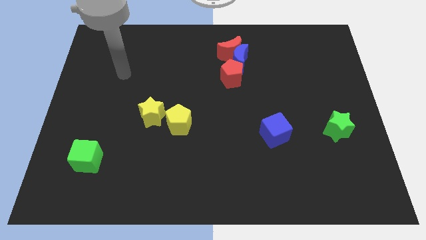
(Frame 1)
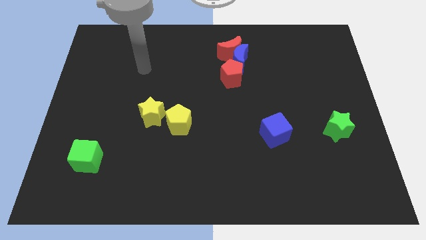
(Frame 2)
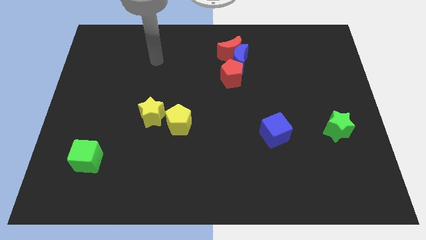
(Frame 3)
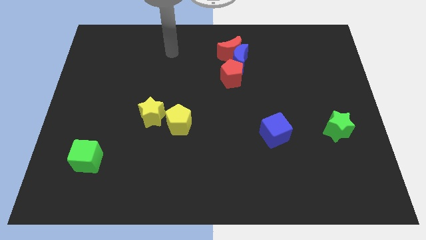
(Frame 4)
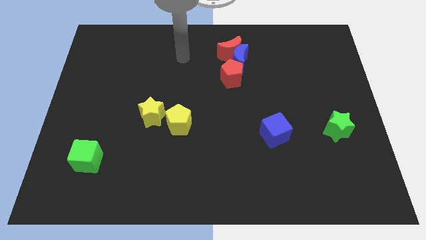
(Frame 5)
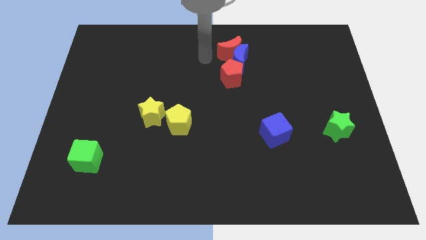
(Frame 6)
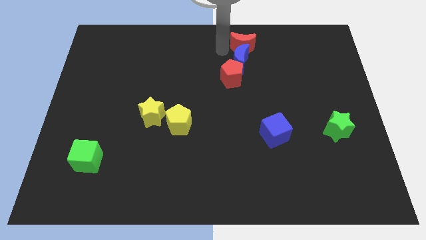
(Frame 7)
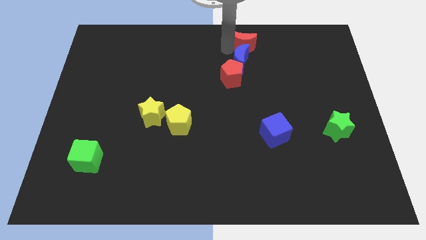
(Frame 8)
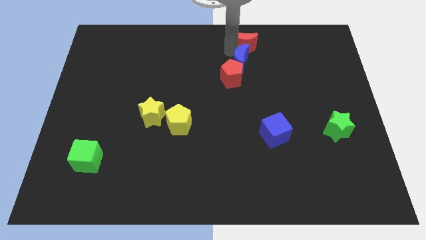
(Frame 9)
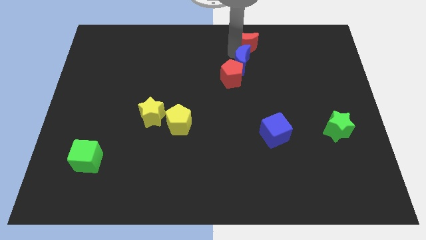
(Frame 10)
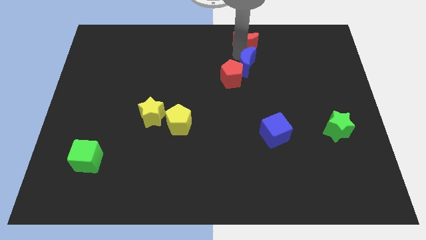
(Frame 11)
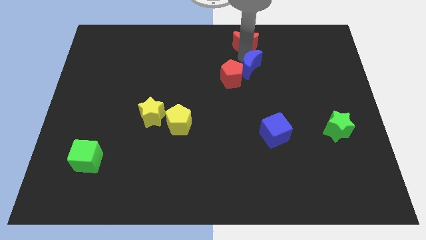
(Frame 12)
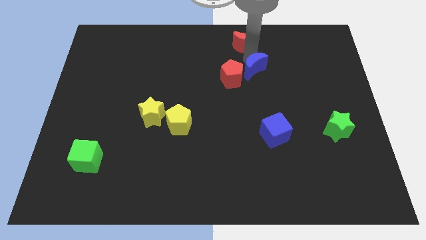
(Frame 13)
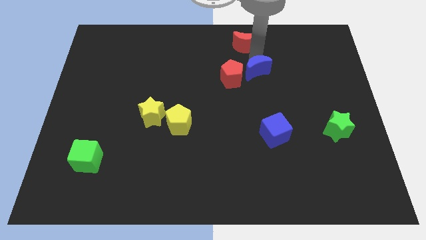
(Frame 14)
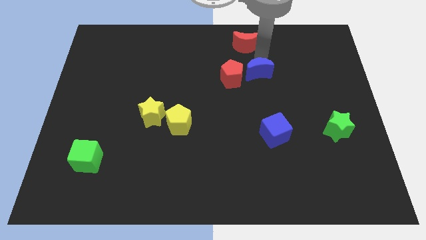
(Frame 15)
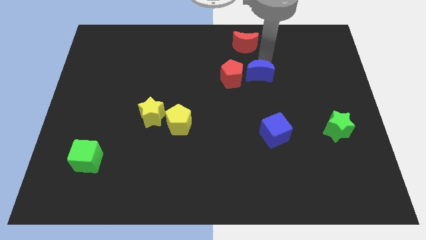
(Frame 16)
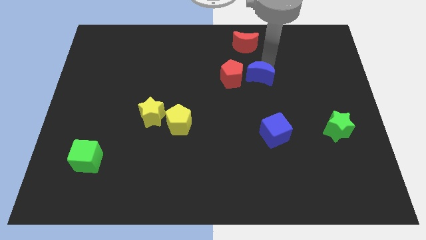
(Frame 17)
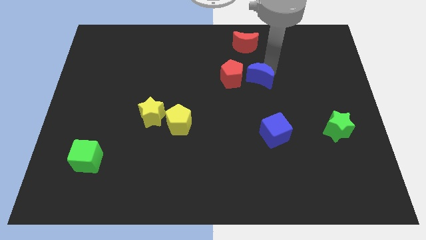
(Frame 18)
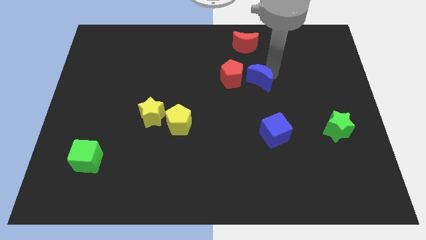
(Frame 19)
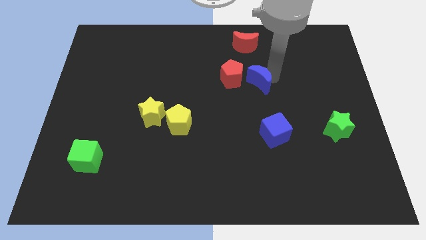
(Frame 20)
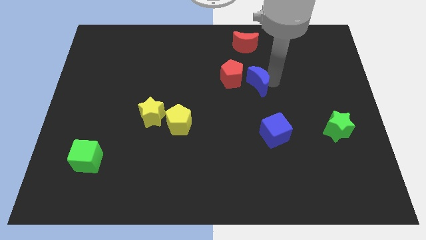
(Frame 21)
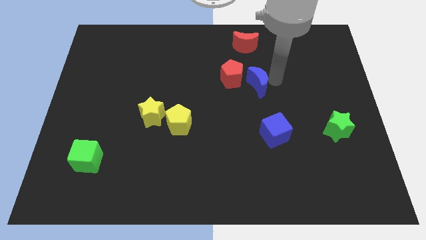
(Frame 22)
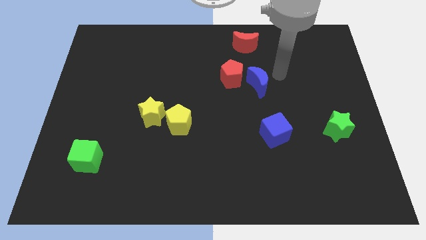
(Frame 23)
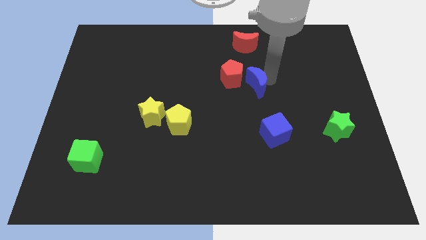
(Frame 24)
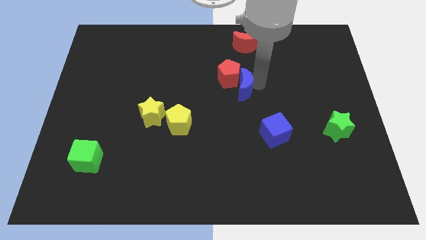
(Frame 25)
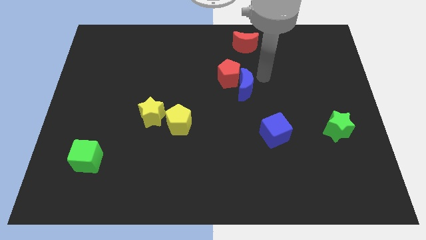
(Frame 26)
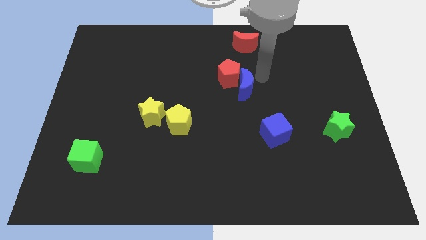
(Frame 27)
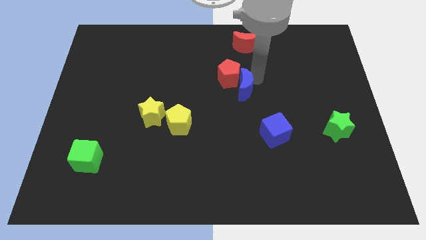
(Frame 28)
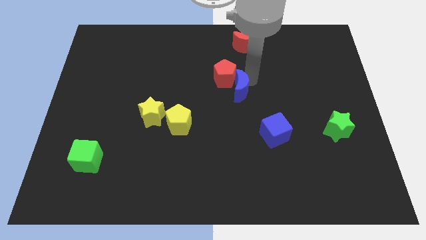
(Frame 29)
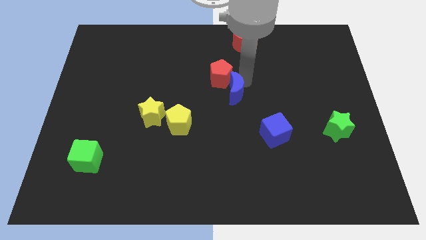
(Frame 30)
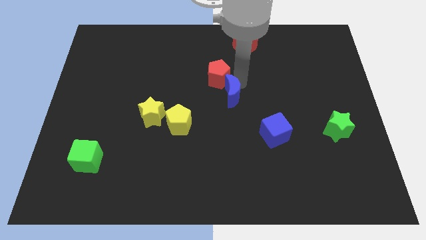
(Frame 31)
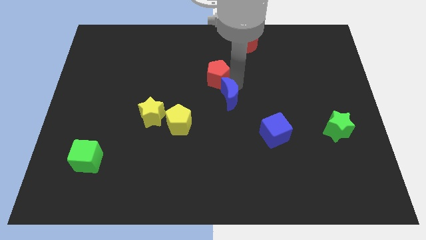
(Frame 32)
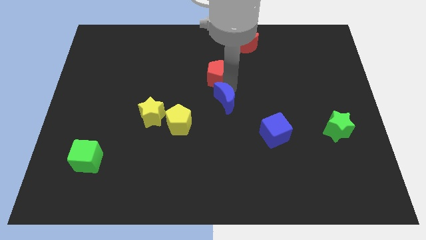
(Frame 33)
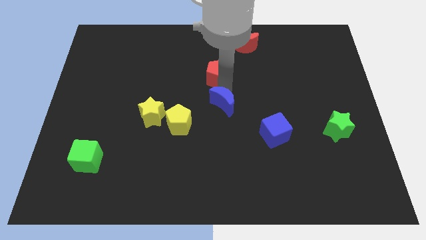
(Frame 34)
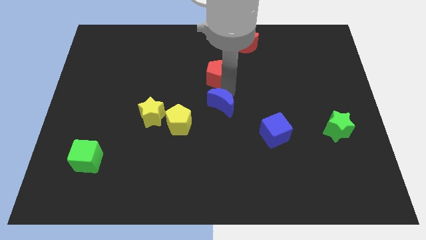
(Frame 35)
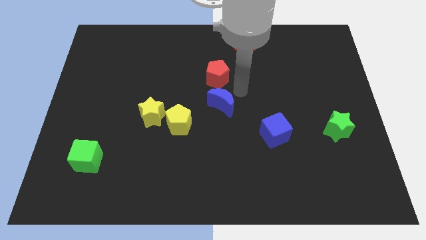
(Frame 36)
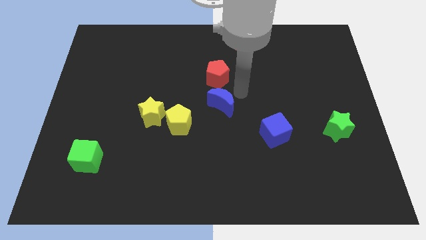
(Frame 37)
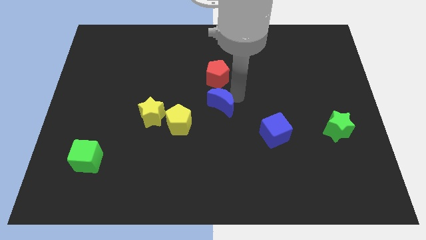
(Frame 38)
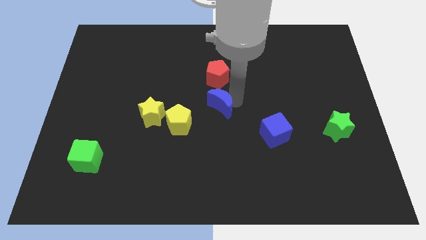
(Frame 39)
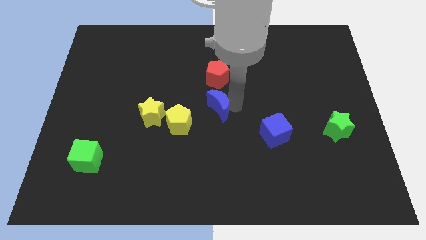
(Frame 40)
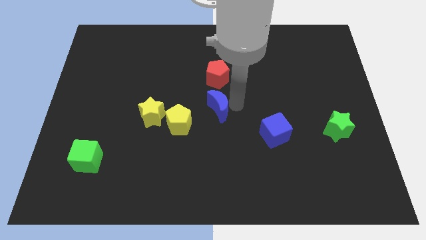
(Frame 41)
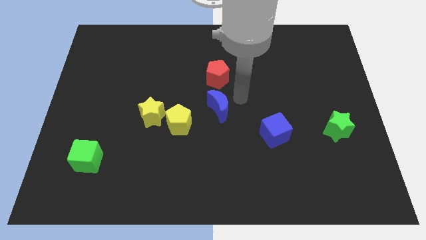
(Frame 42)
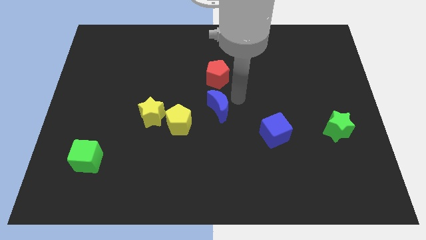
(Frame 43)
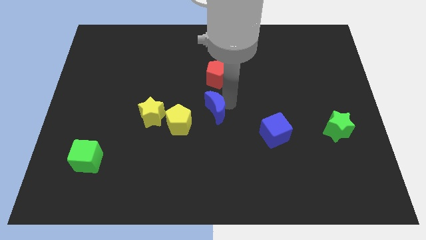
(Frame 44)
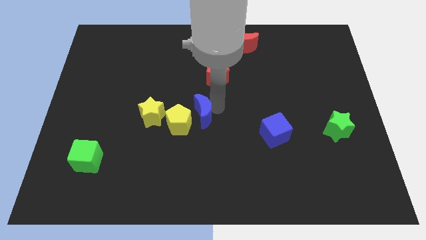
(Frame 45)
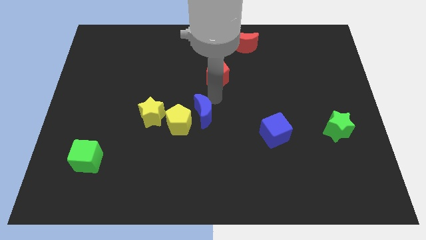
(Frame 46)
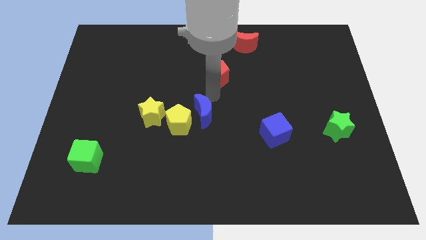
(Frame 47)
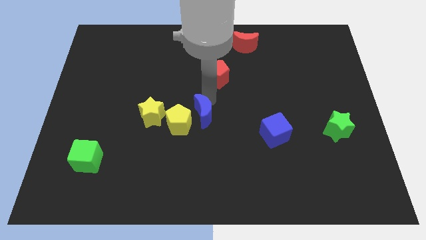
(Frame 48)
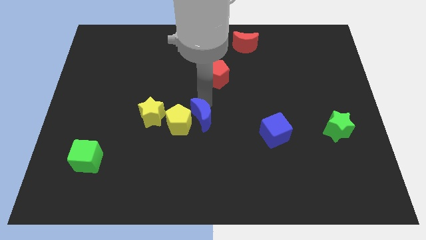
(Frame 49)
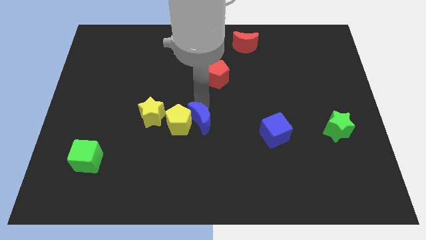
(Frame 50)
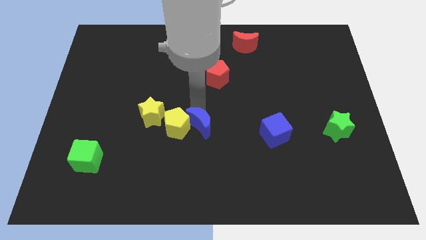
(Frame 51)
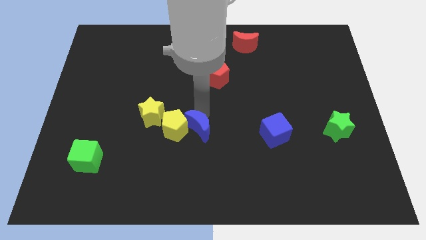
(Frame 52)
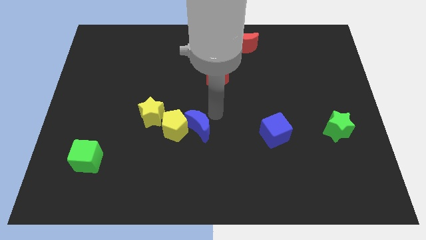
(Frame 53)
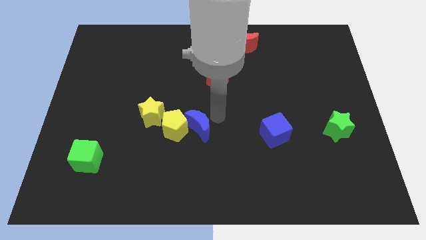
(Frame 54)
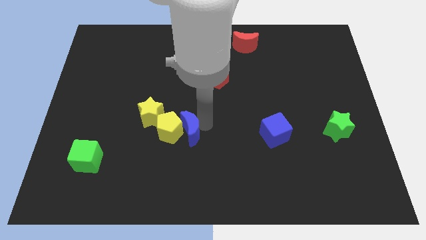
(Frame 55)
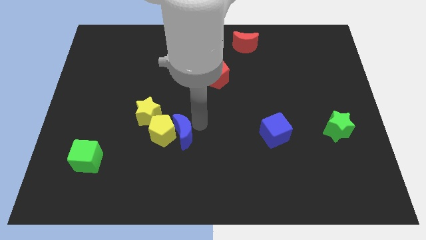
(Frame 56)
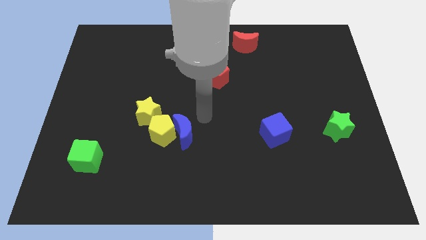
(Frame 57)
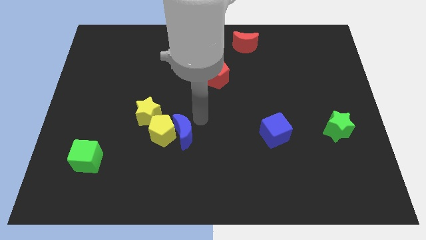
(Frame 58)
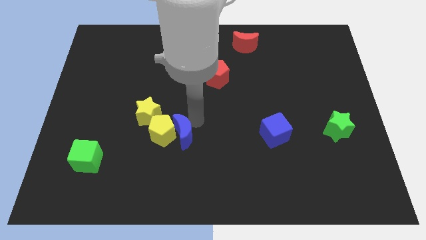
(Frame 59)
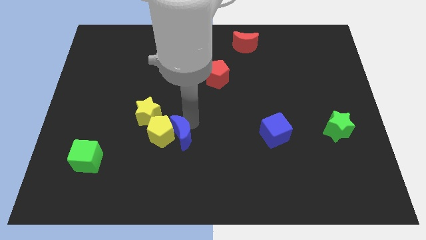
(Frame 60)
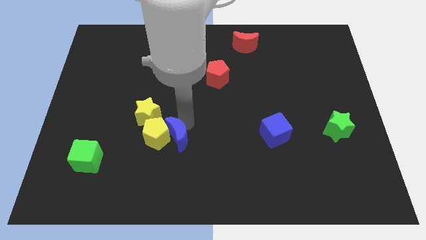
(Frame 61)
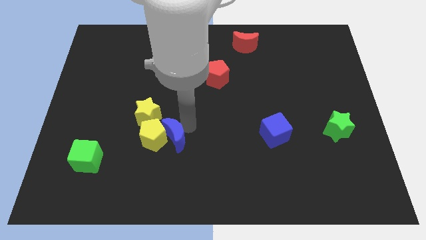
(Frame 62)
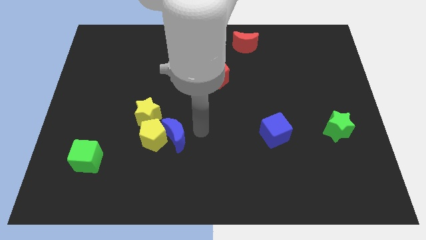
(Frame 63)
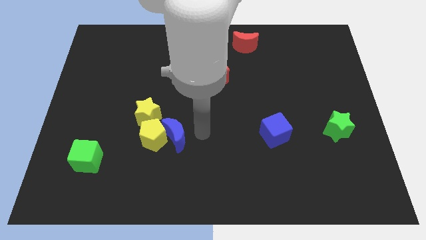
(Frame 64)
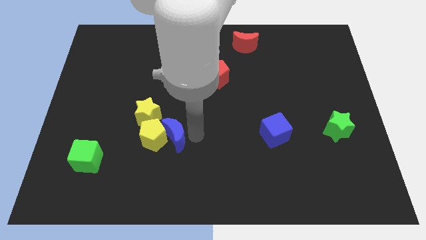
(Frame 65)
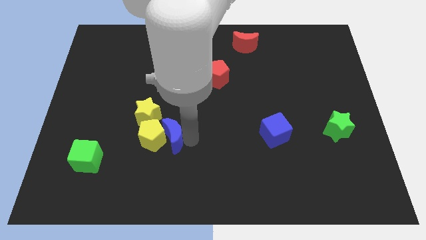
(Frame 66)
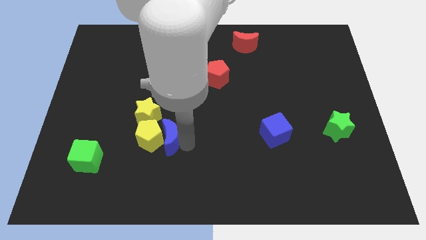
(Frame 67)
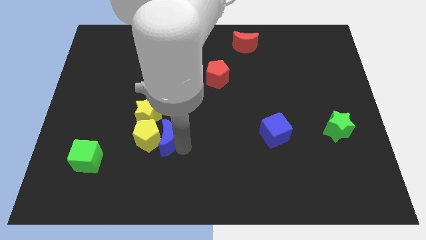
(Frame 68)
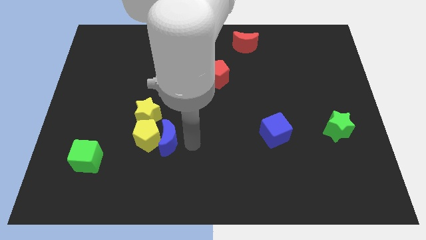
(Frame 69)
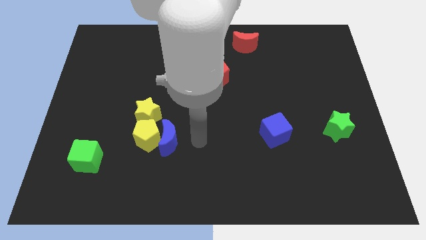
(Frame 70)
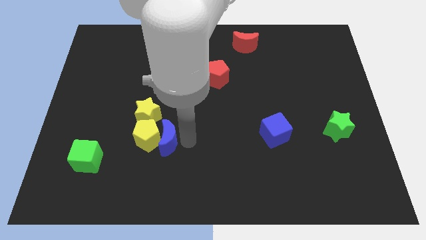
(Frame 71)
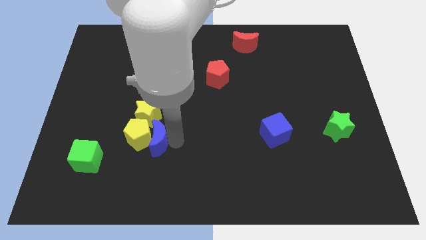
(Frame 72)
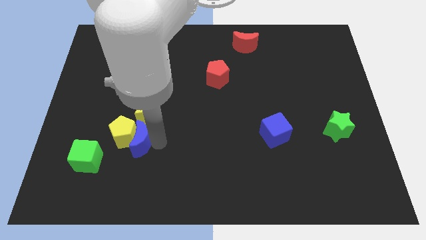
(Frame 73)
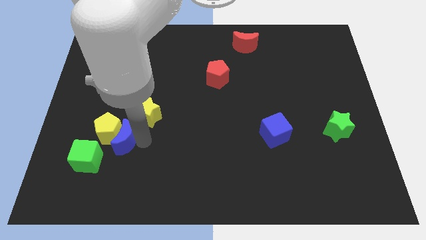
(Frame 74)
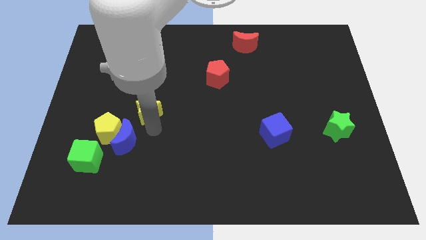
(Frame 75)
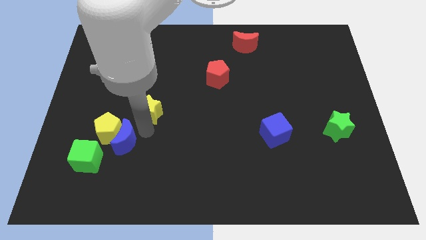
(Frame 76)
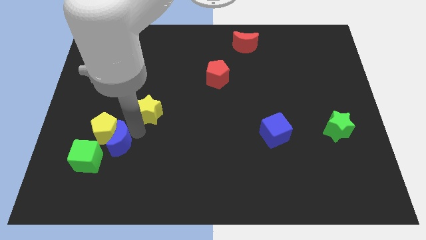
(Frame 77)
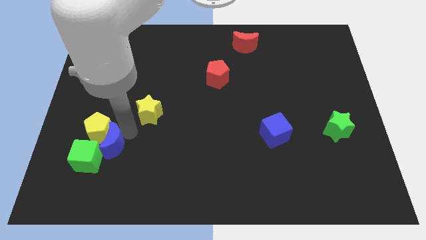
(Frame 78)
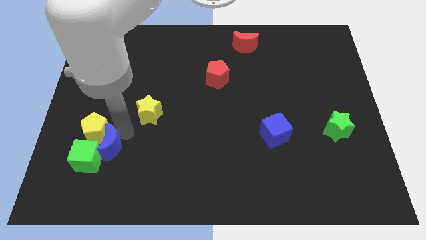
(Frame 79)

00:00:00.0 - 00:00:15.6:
slide the blue moon next to the green cube
